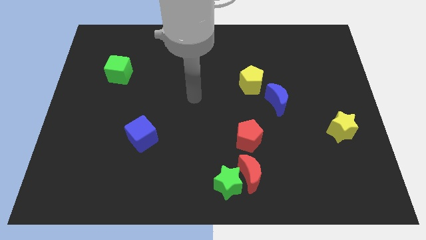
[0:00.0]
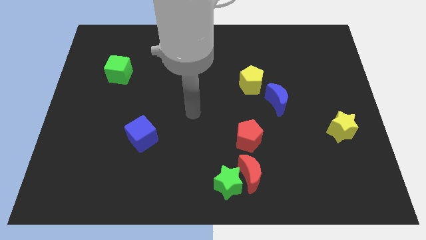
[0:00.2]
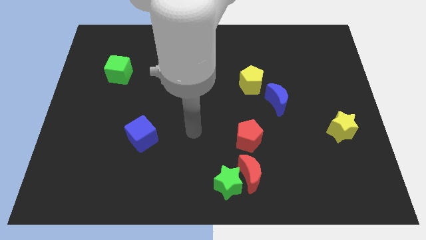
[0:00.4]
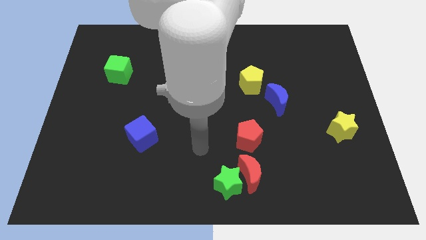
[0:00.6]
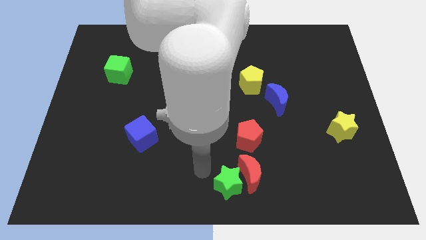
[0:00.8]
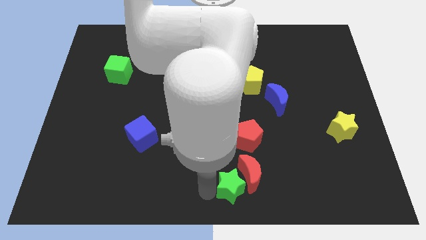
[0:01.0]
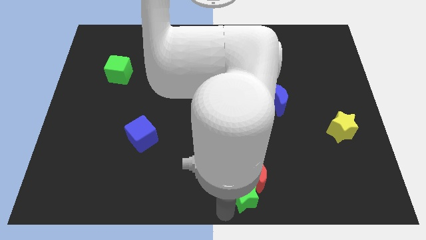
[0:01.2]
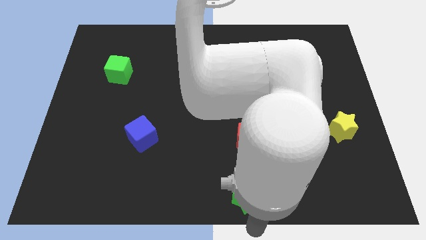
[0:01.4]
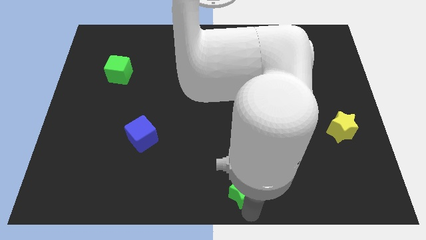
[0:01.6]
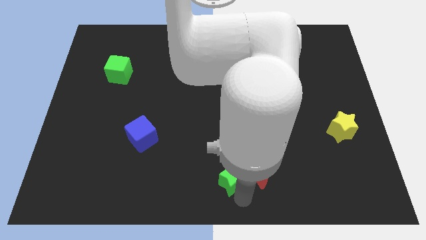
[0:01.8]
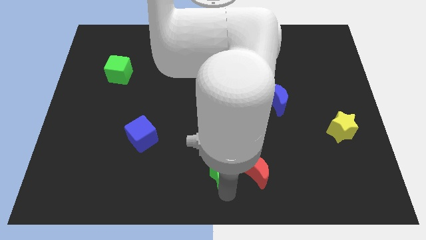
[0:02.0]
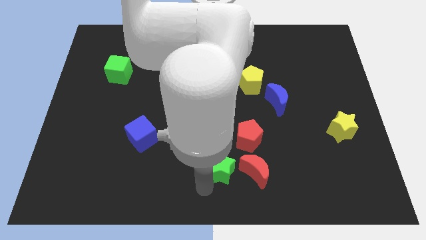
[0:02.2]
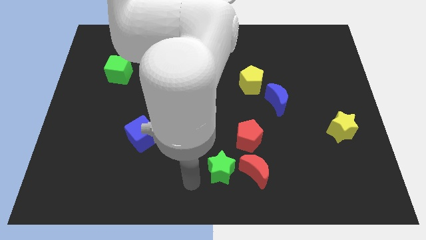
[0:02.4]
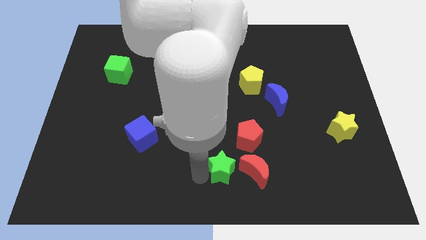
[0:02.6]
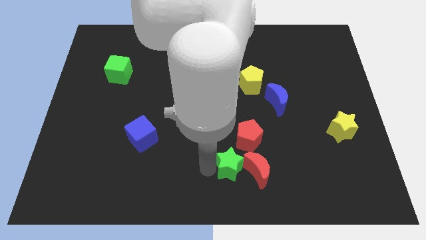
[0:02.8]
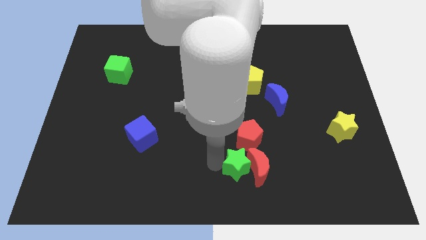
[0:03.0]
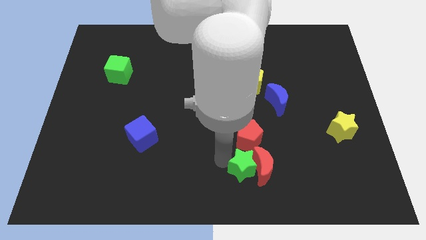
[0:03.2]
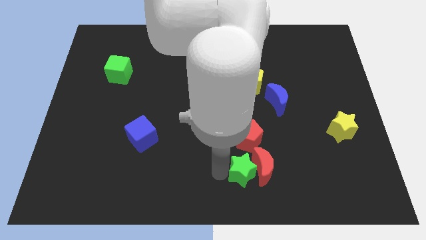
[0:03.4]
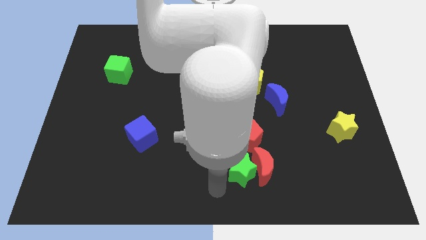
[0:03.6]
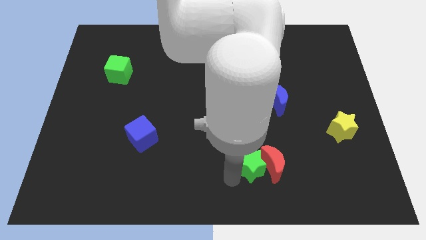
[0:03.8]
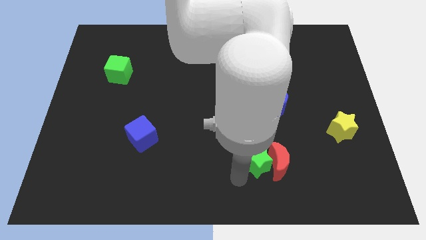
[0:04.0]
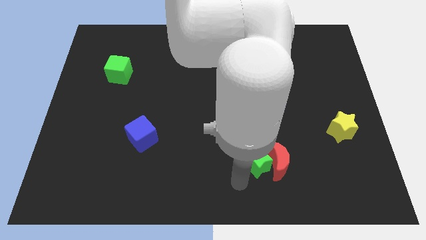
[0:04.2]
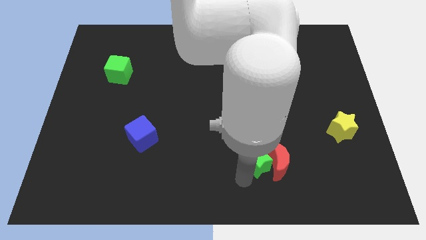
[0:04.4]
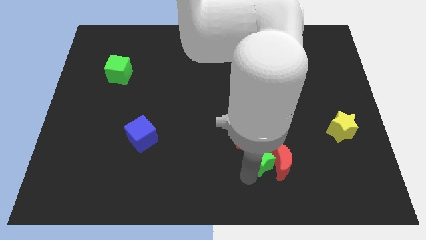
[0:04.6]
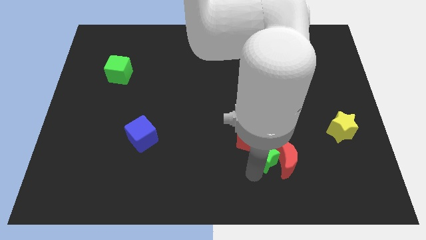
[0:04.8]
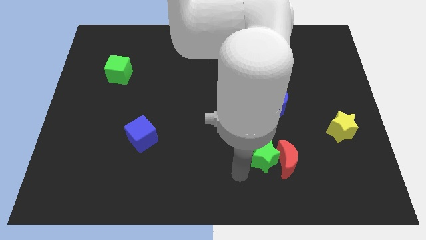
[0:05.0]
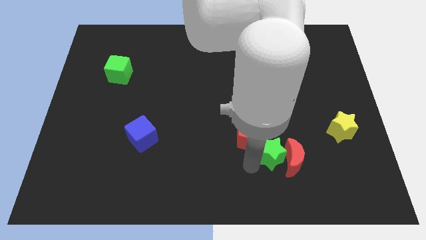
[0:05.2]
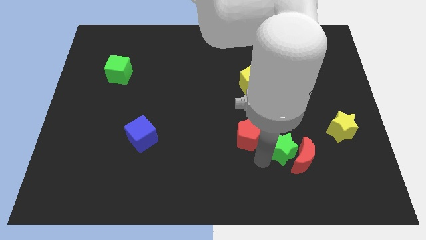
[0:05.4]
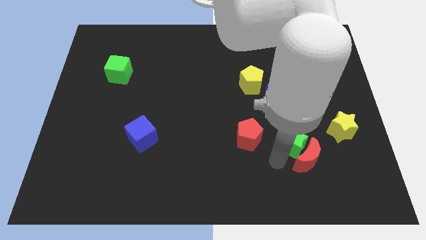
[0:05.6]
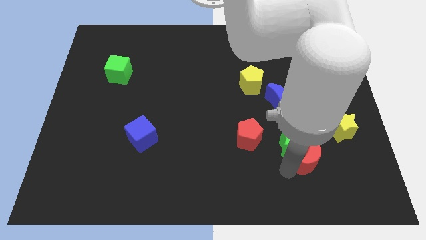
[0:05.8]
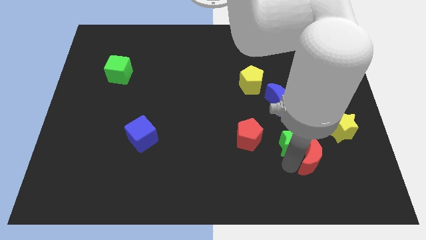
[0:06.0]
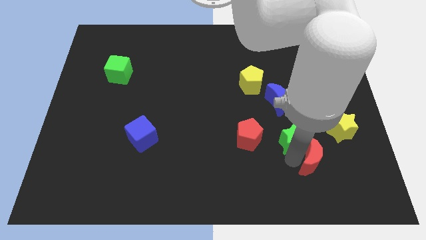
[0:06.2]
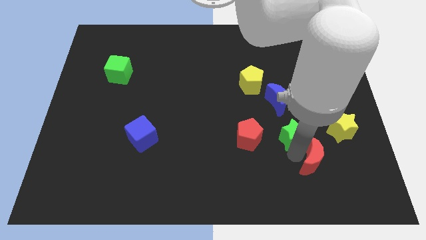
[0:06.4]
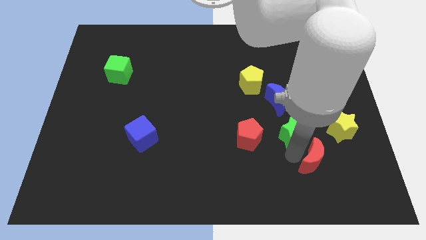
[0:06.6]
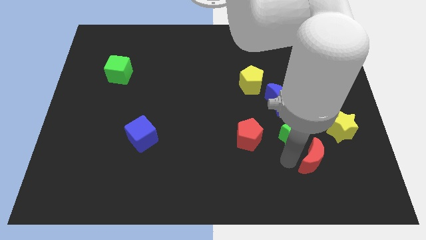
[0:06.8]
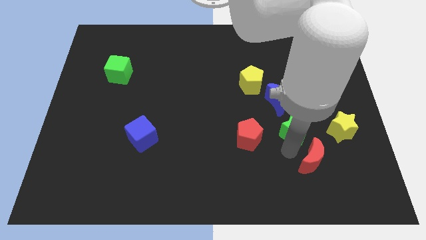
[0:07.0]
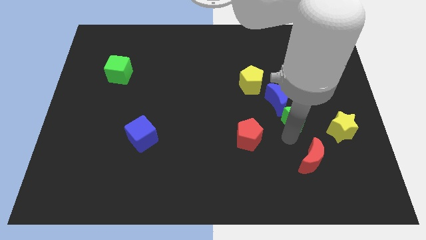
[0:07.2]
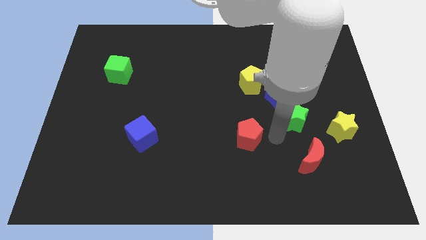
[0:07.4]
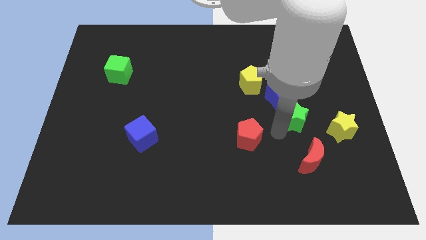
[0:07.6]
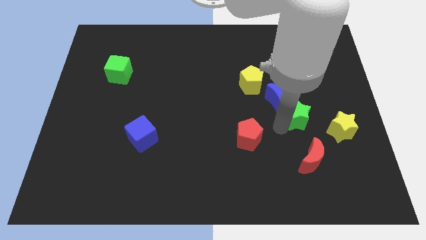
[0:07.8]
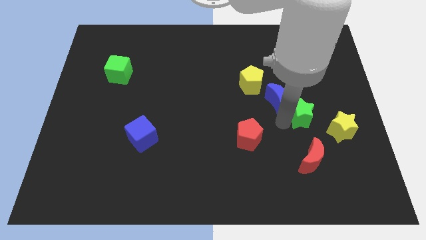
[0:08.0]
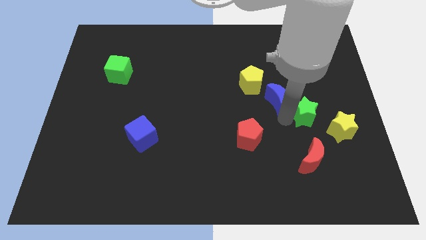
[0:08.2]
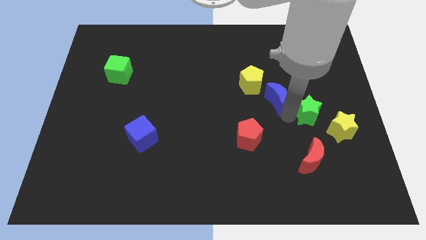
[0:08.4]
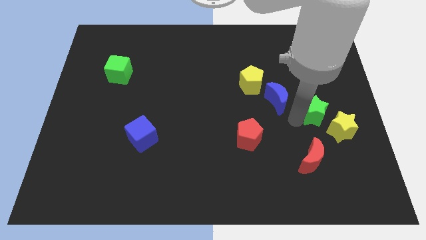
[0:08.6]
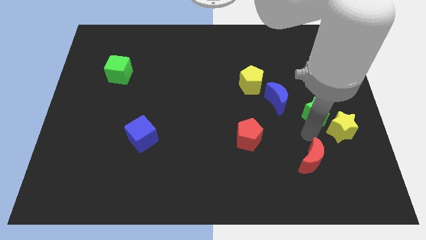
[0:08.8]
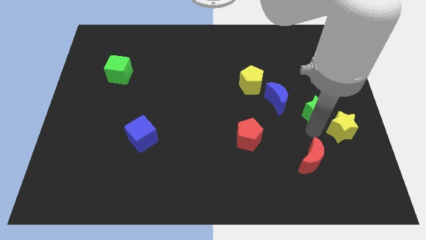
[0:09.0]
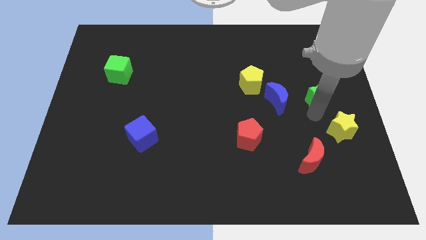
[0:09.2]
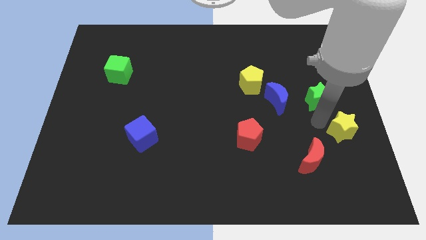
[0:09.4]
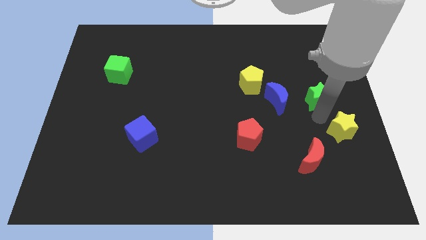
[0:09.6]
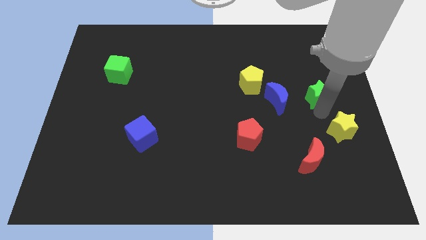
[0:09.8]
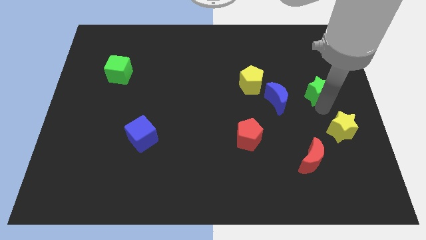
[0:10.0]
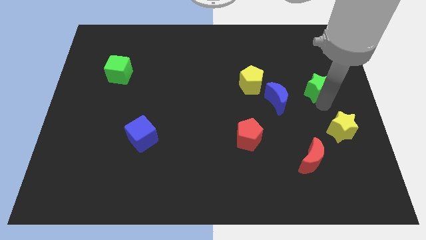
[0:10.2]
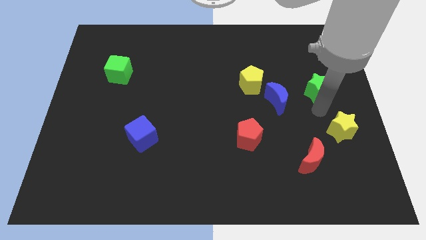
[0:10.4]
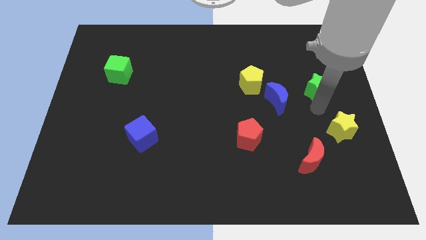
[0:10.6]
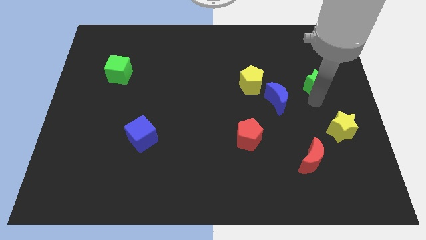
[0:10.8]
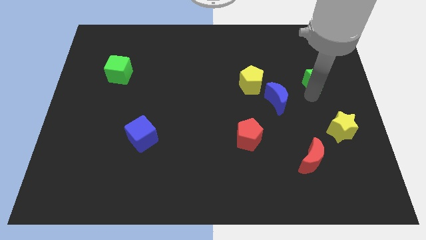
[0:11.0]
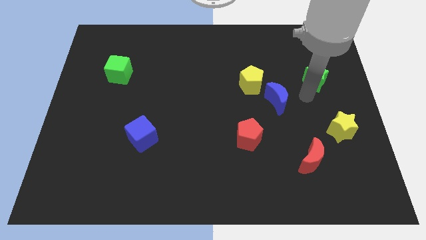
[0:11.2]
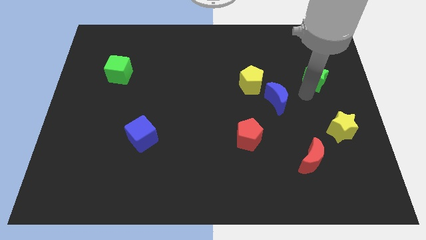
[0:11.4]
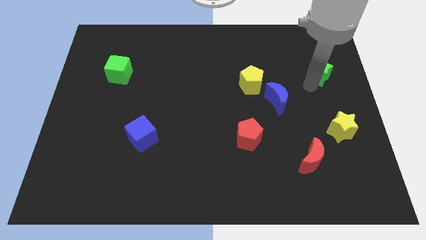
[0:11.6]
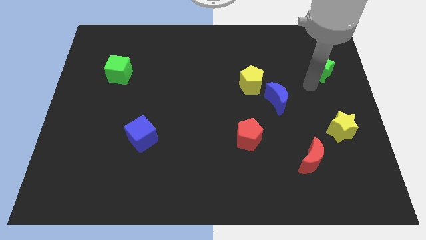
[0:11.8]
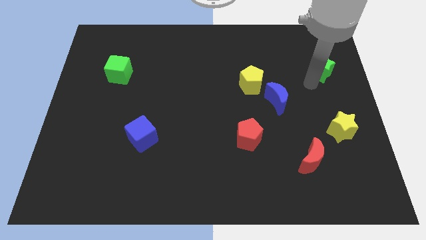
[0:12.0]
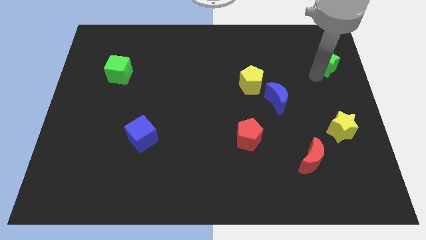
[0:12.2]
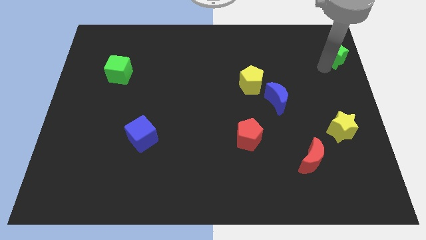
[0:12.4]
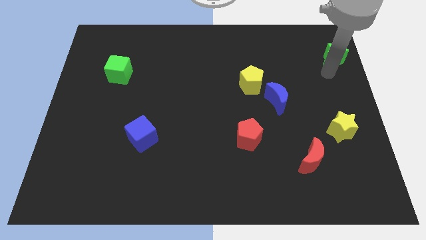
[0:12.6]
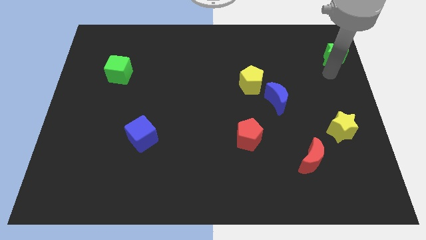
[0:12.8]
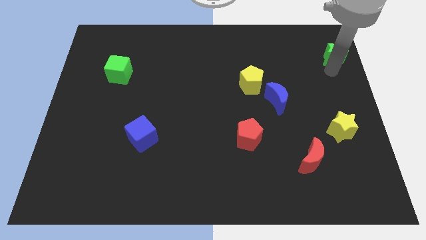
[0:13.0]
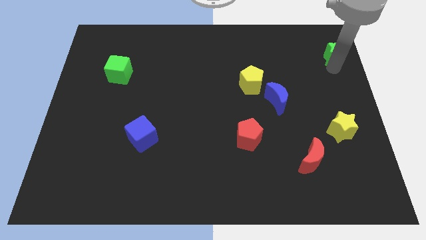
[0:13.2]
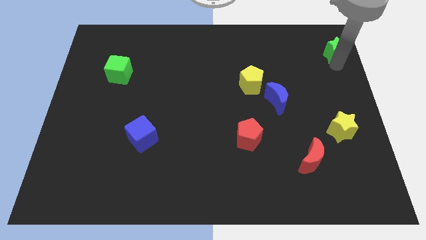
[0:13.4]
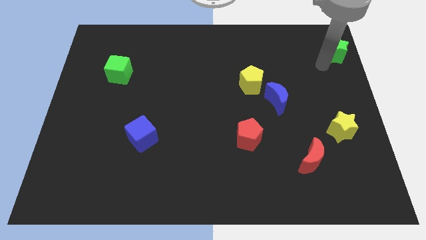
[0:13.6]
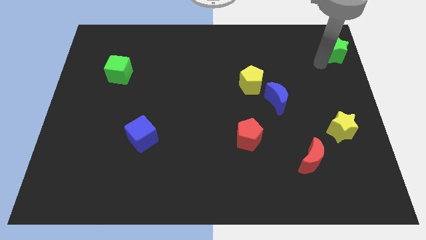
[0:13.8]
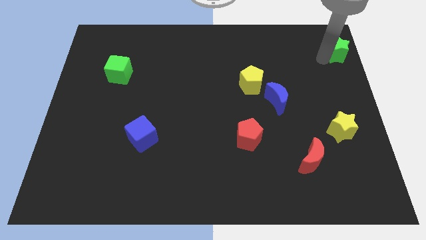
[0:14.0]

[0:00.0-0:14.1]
push the green star to the top right corner
